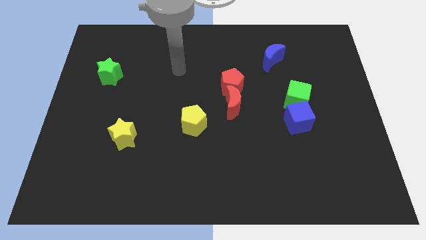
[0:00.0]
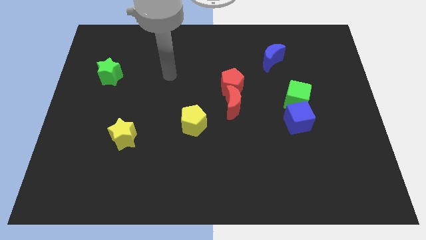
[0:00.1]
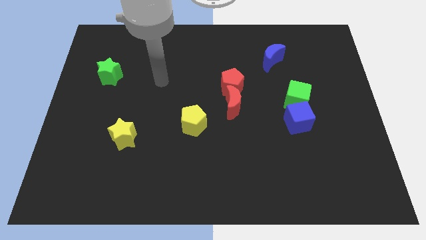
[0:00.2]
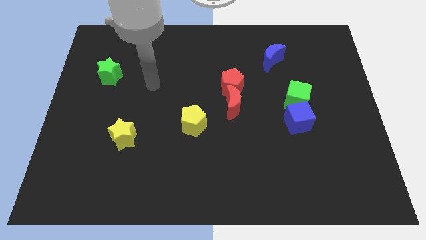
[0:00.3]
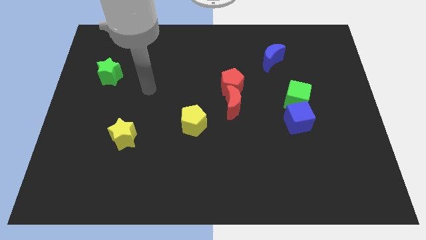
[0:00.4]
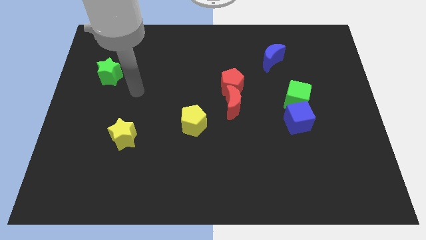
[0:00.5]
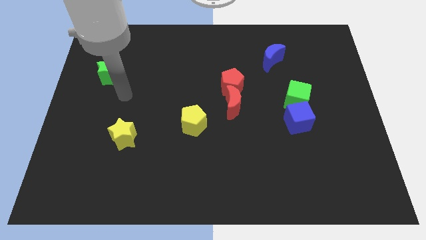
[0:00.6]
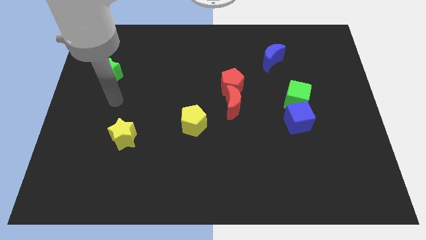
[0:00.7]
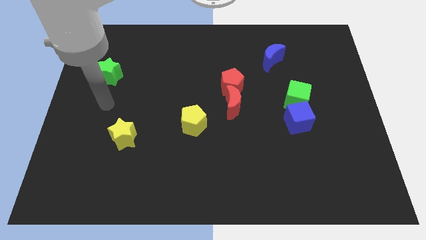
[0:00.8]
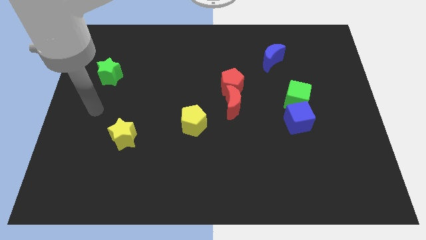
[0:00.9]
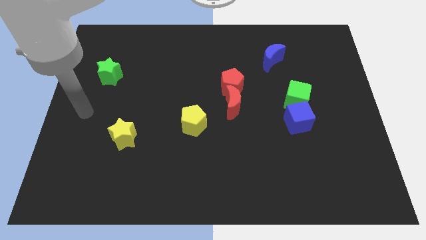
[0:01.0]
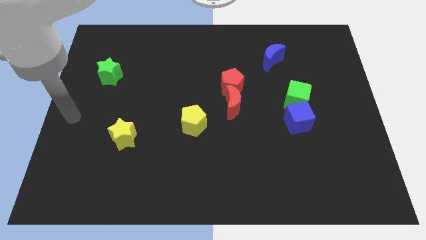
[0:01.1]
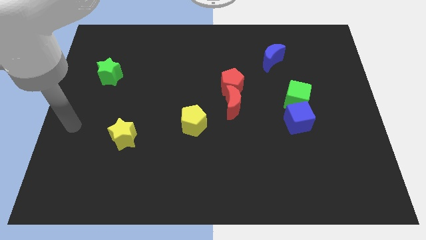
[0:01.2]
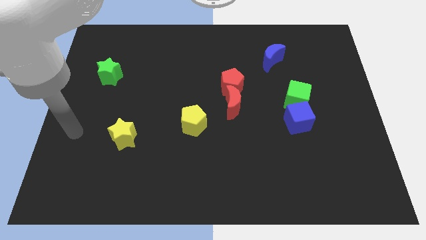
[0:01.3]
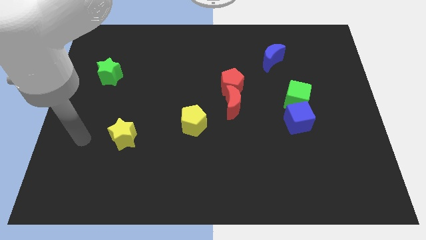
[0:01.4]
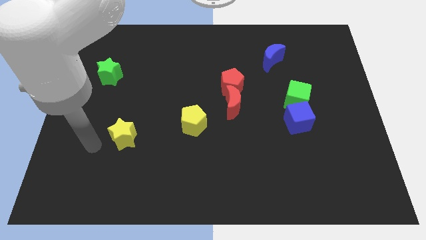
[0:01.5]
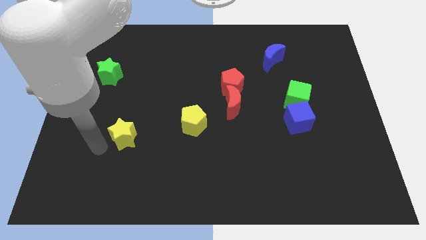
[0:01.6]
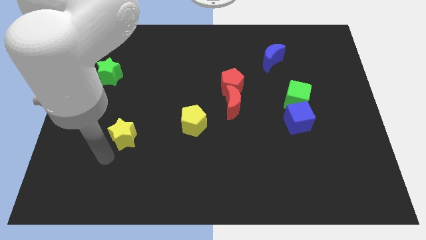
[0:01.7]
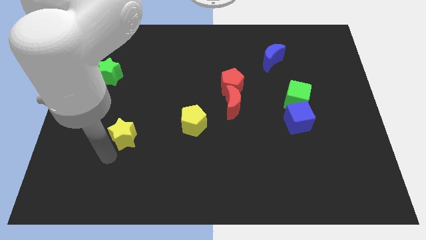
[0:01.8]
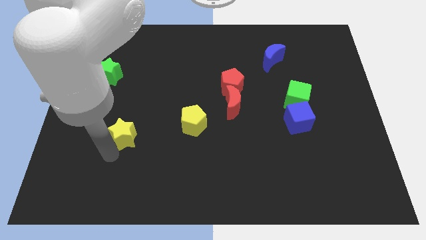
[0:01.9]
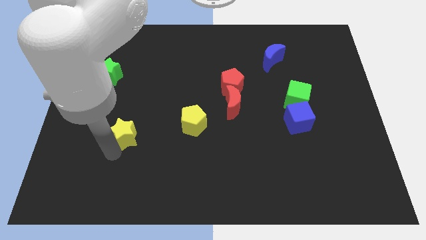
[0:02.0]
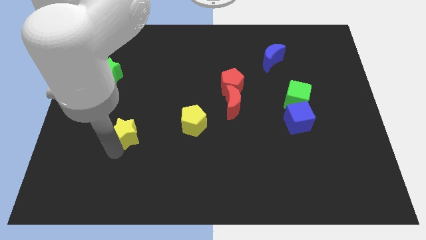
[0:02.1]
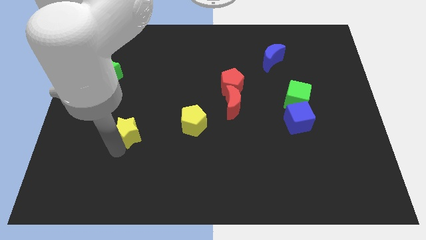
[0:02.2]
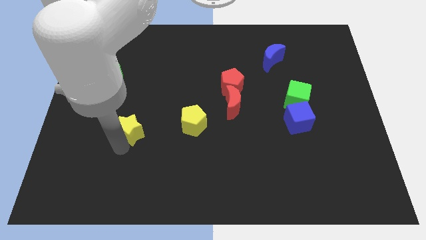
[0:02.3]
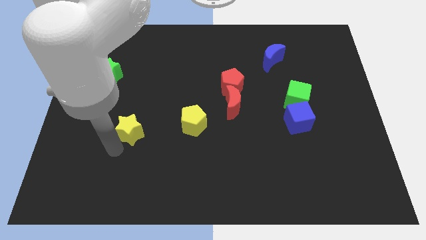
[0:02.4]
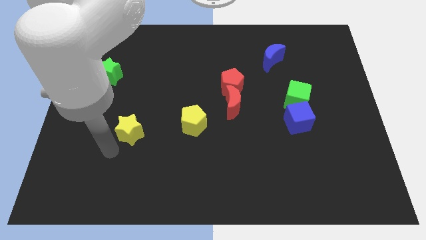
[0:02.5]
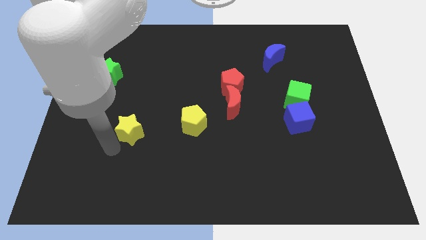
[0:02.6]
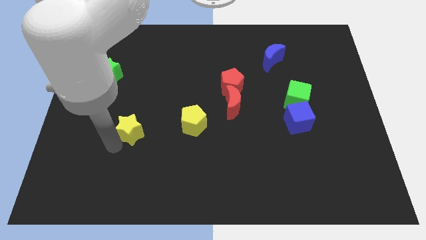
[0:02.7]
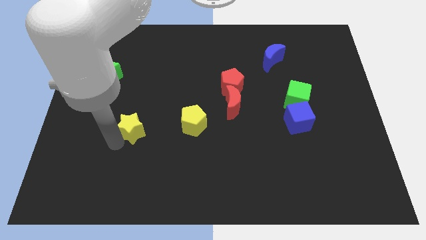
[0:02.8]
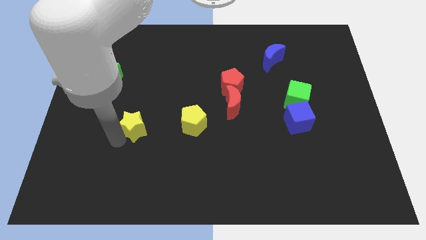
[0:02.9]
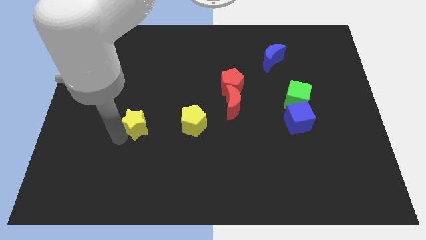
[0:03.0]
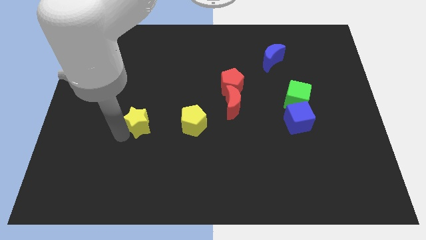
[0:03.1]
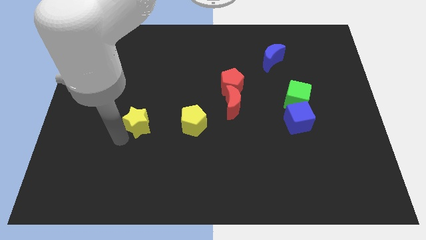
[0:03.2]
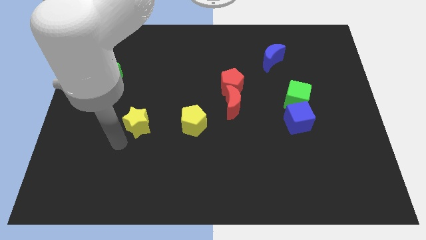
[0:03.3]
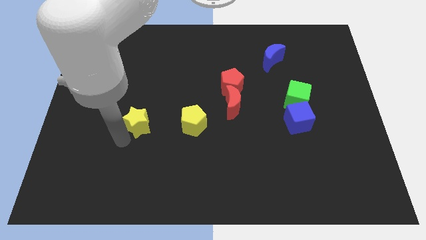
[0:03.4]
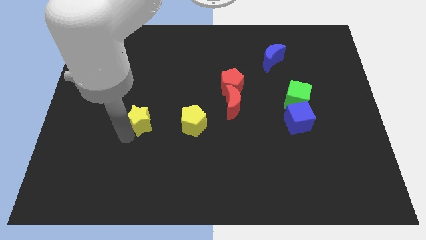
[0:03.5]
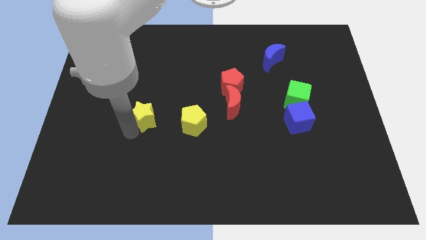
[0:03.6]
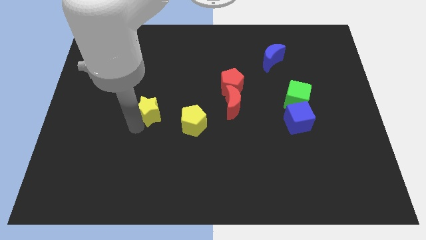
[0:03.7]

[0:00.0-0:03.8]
slide the yellow star a little bit diagonally upwards and right

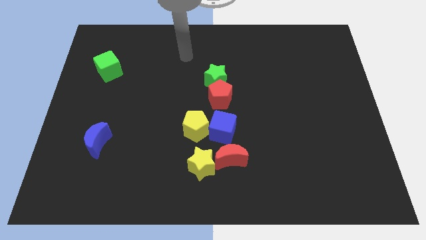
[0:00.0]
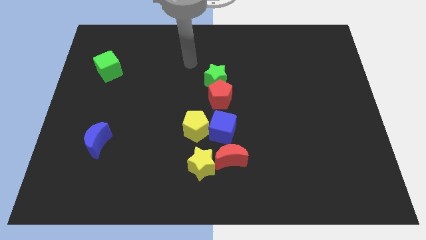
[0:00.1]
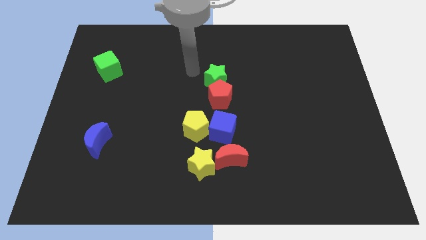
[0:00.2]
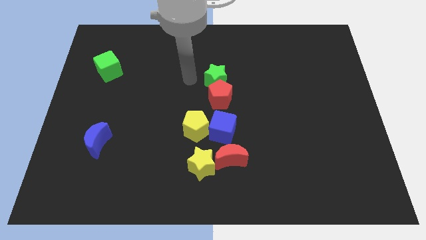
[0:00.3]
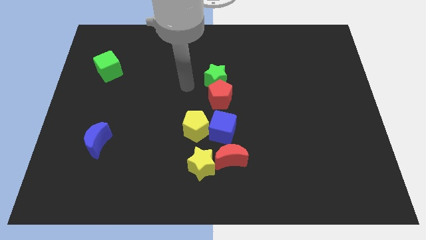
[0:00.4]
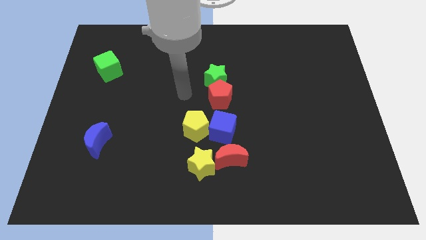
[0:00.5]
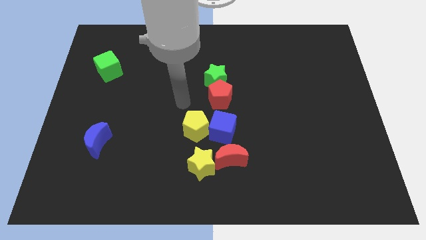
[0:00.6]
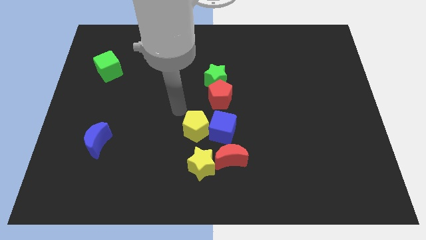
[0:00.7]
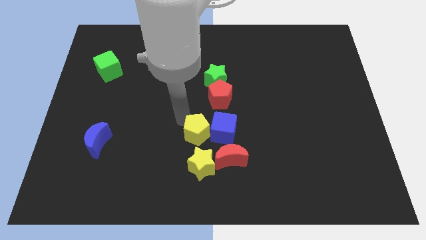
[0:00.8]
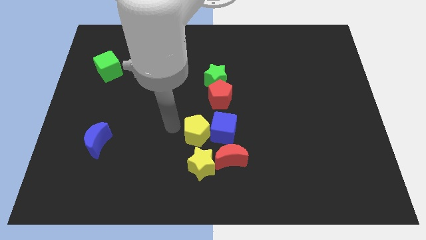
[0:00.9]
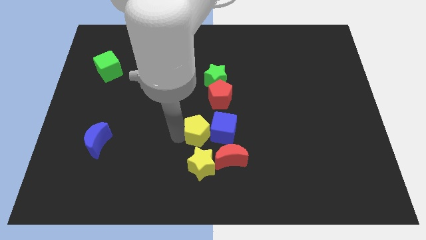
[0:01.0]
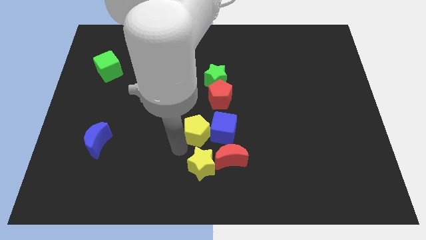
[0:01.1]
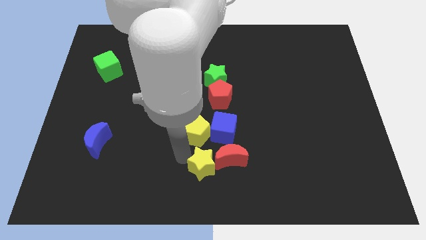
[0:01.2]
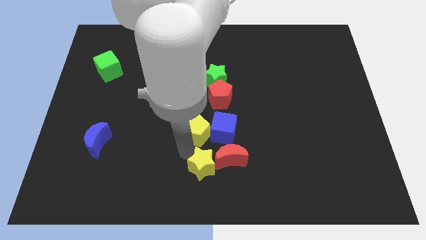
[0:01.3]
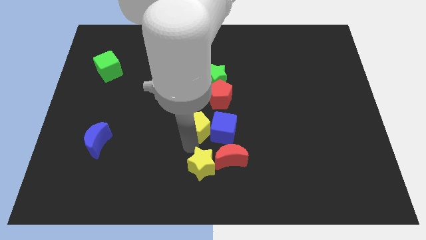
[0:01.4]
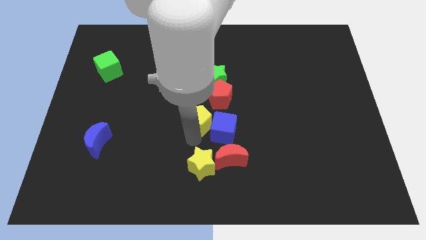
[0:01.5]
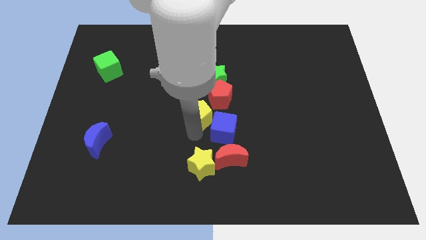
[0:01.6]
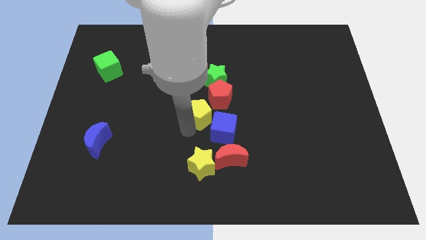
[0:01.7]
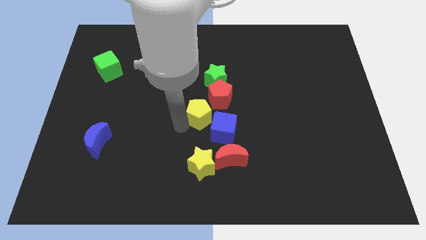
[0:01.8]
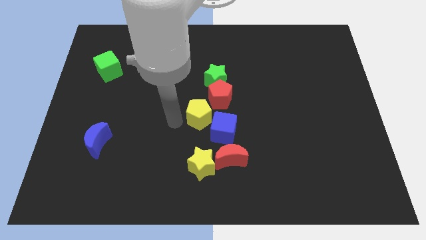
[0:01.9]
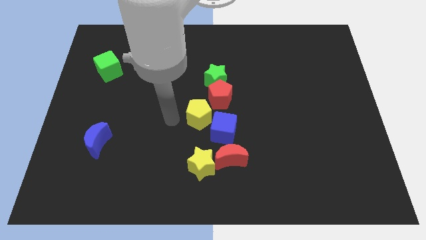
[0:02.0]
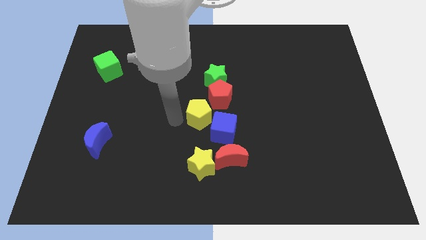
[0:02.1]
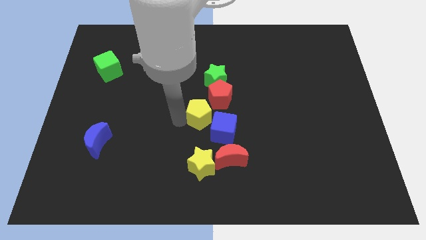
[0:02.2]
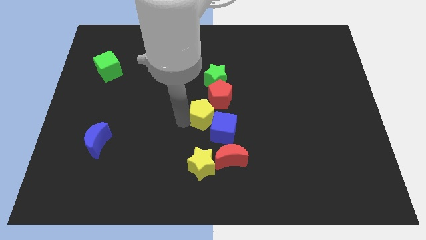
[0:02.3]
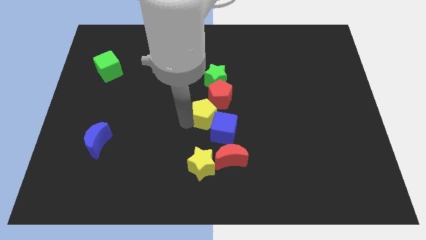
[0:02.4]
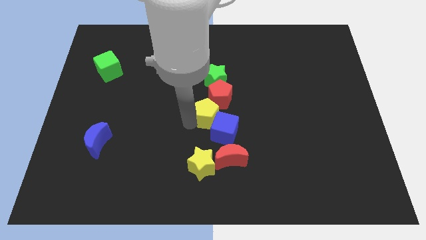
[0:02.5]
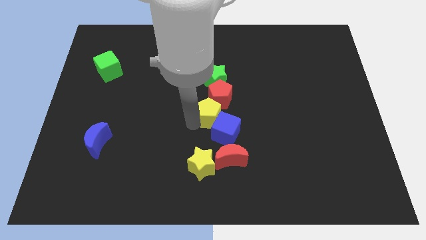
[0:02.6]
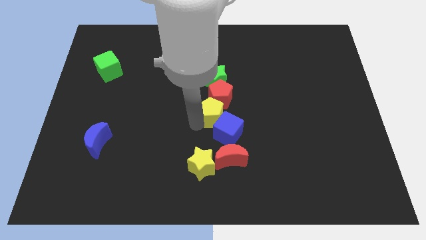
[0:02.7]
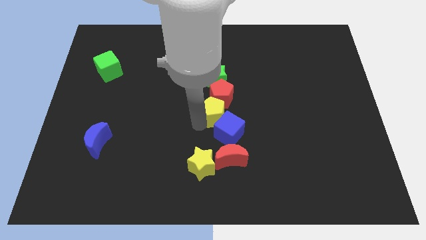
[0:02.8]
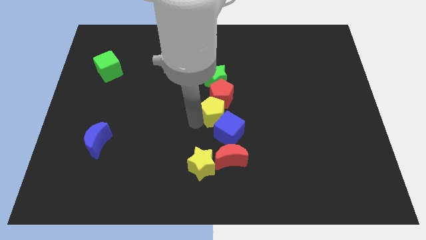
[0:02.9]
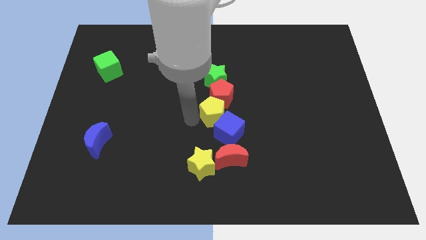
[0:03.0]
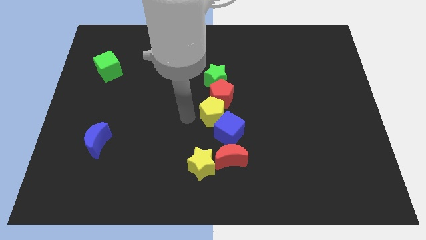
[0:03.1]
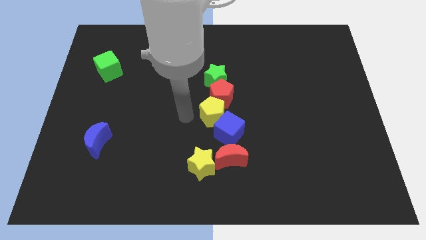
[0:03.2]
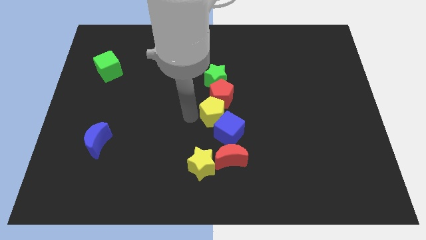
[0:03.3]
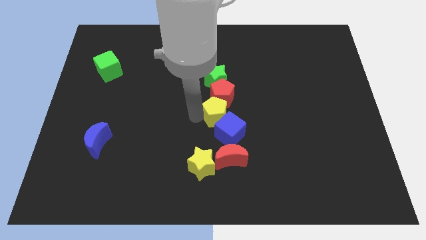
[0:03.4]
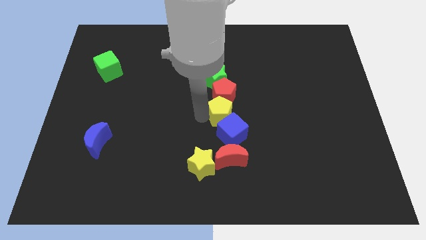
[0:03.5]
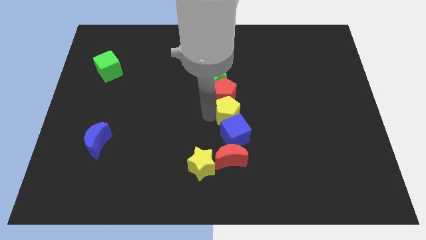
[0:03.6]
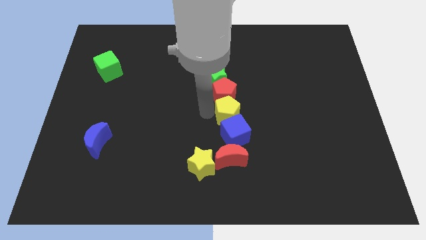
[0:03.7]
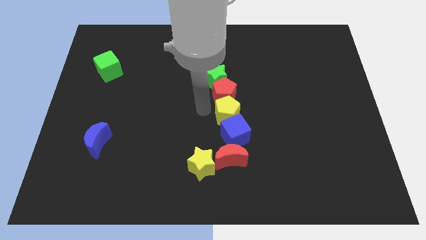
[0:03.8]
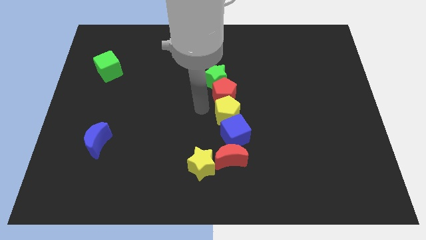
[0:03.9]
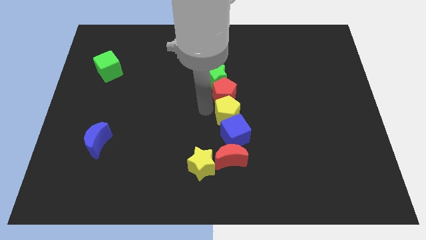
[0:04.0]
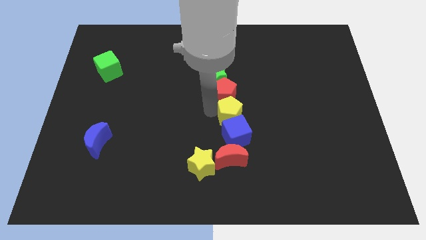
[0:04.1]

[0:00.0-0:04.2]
move the yellow pentagon a little bit to the right
